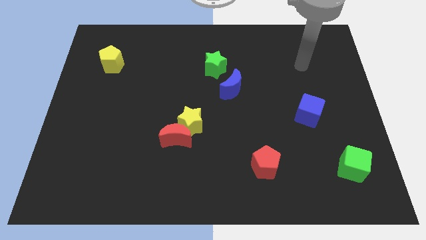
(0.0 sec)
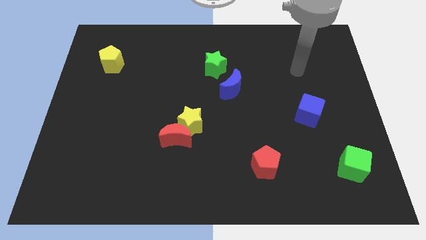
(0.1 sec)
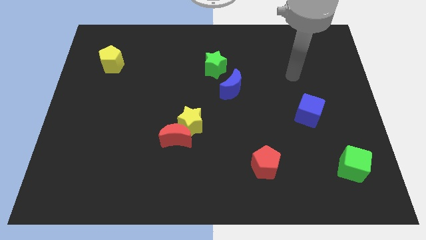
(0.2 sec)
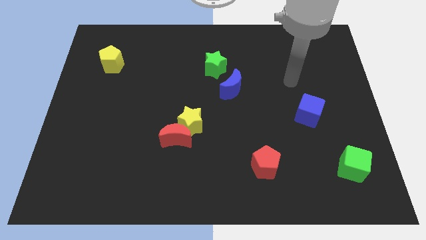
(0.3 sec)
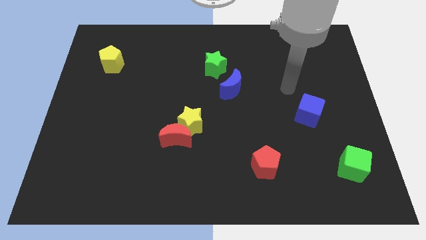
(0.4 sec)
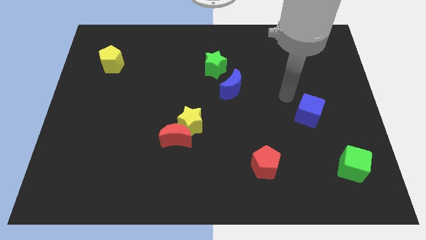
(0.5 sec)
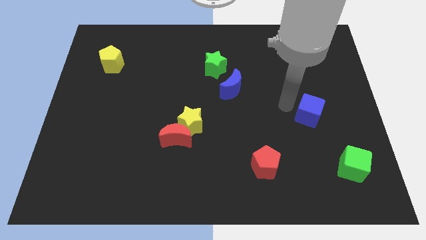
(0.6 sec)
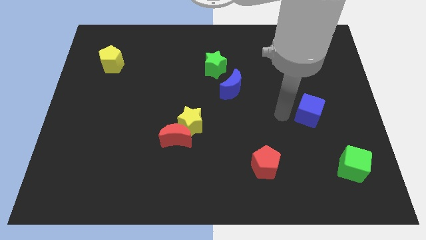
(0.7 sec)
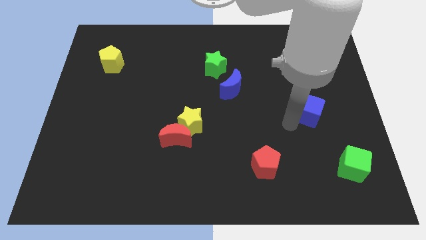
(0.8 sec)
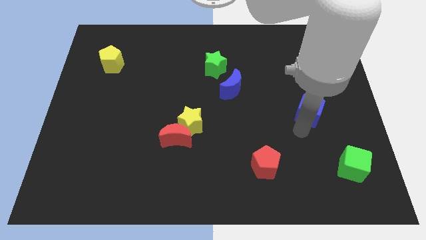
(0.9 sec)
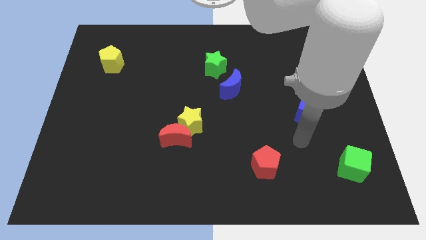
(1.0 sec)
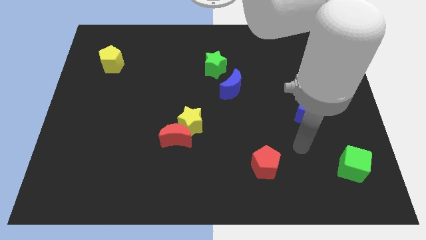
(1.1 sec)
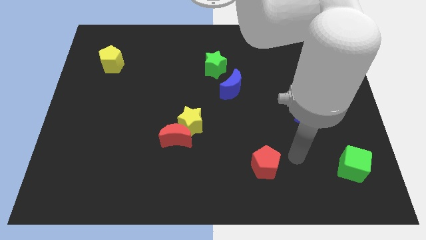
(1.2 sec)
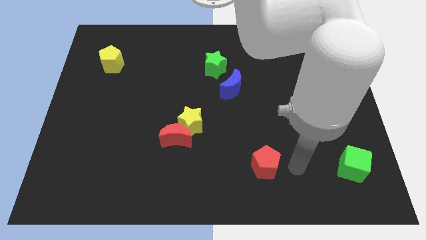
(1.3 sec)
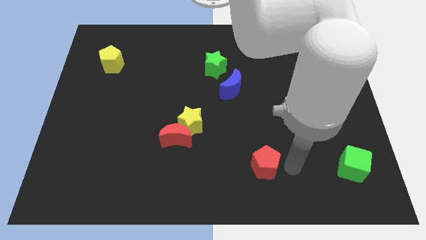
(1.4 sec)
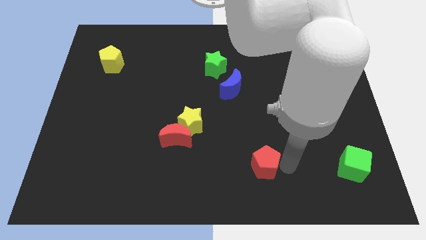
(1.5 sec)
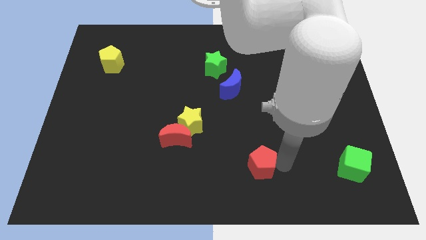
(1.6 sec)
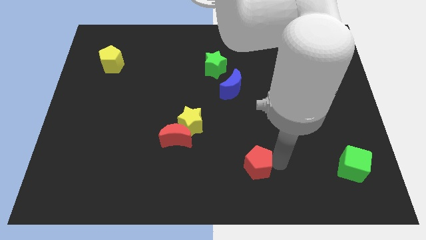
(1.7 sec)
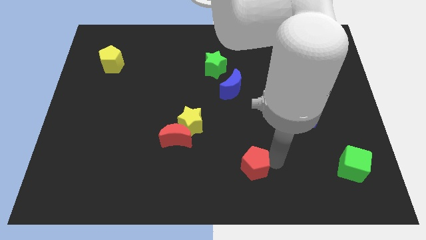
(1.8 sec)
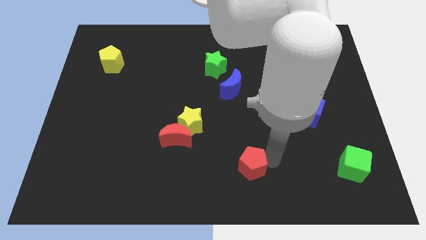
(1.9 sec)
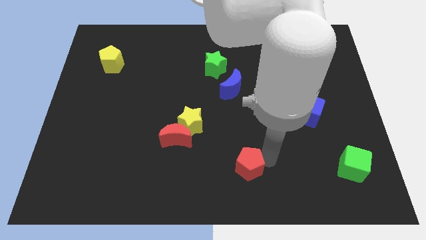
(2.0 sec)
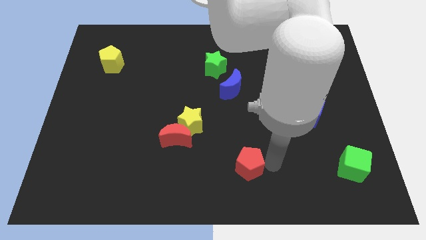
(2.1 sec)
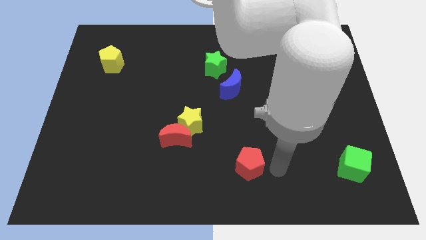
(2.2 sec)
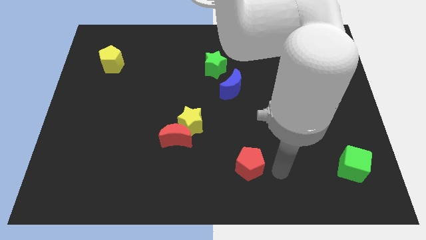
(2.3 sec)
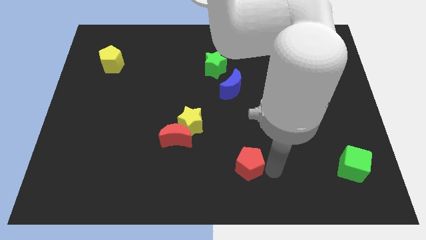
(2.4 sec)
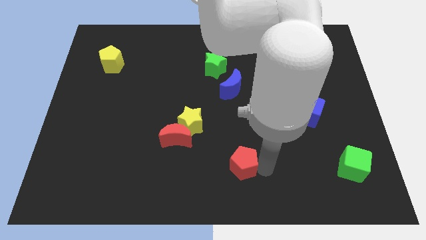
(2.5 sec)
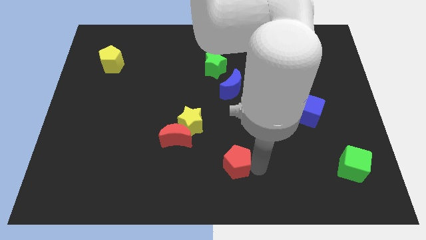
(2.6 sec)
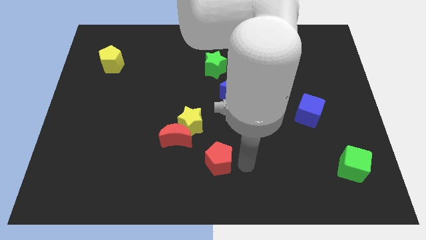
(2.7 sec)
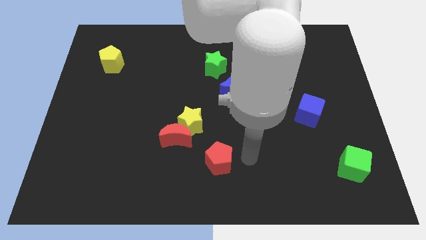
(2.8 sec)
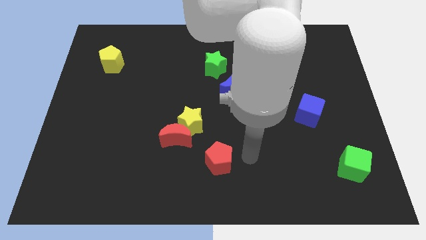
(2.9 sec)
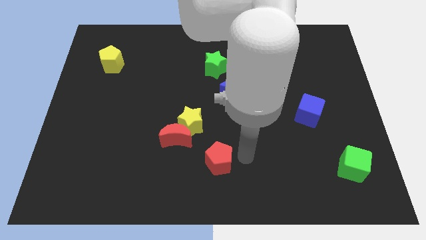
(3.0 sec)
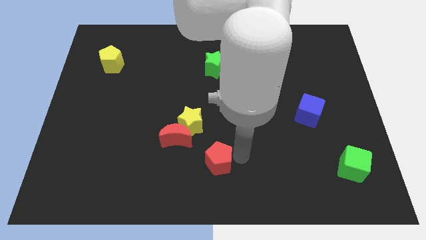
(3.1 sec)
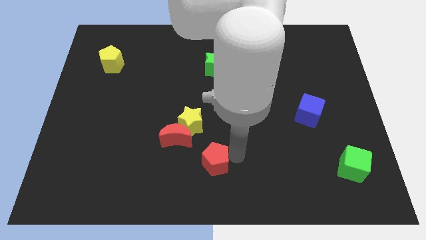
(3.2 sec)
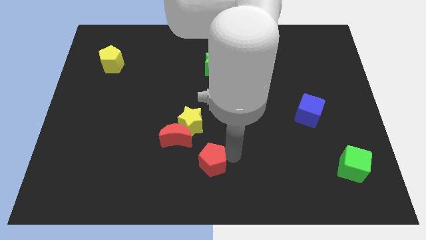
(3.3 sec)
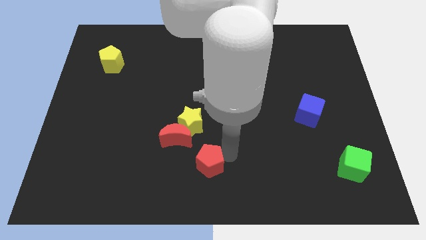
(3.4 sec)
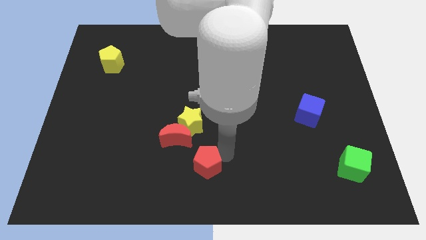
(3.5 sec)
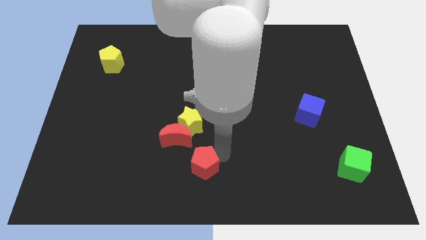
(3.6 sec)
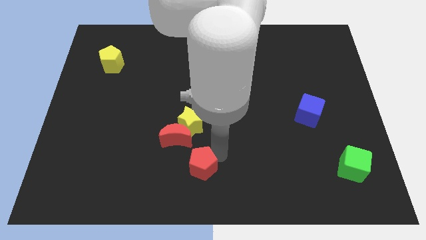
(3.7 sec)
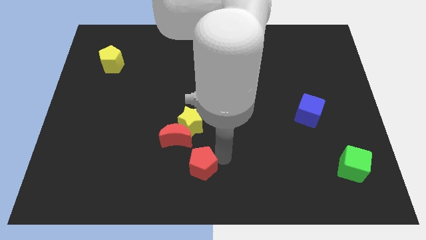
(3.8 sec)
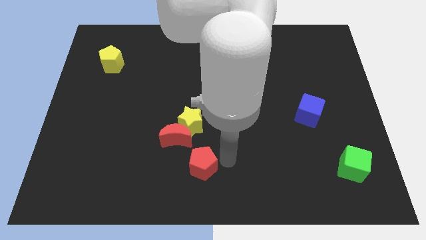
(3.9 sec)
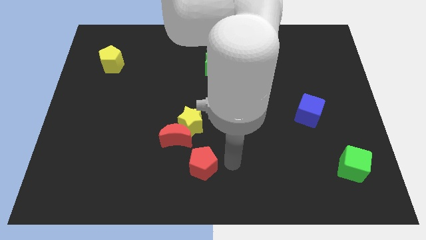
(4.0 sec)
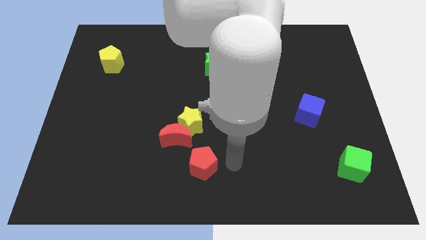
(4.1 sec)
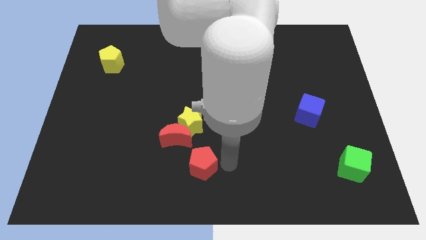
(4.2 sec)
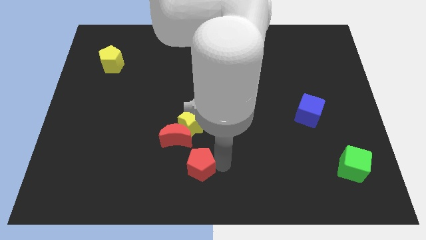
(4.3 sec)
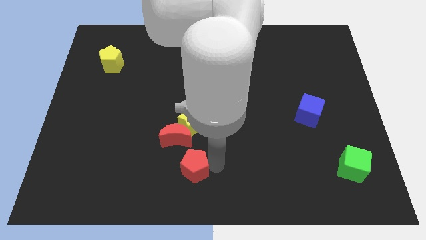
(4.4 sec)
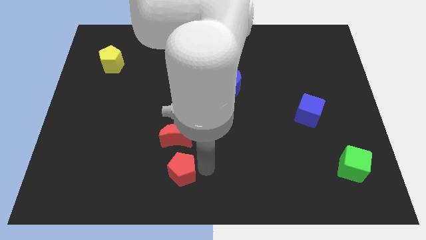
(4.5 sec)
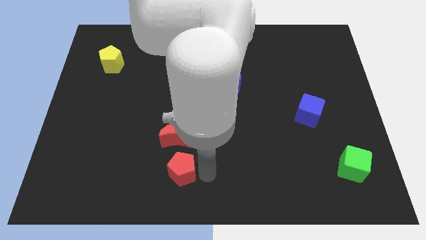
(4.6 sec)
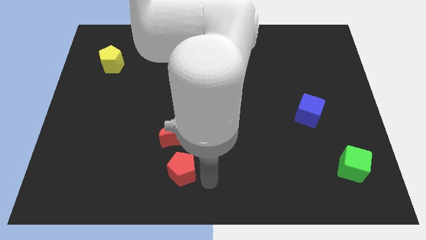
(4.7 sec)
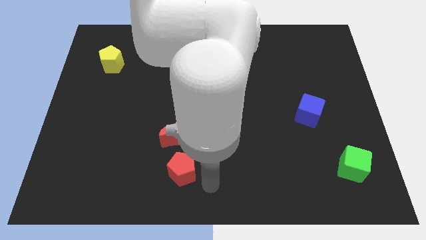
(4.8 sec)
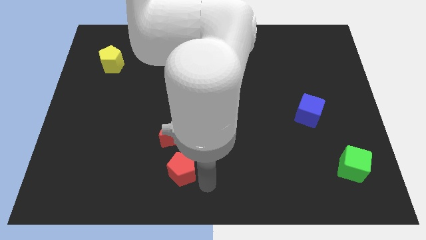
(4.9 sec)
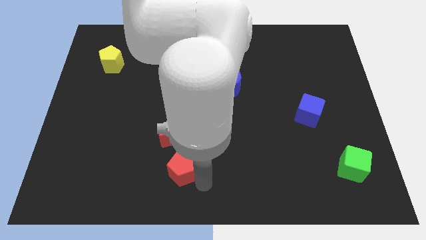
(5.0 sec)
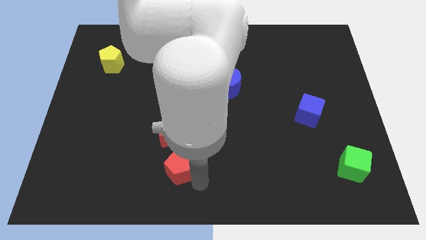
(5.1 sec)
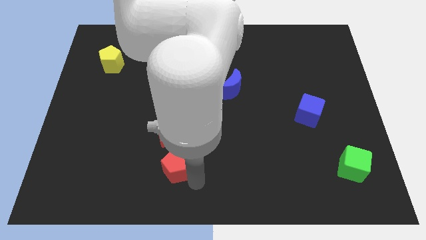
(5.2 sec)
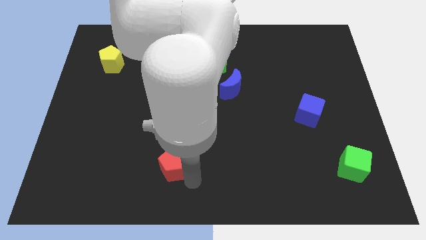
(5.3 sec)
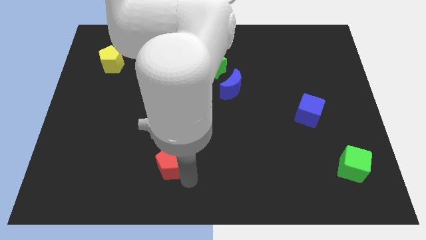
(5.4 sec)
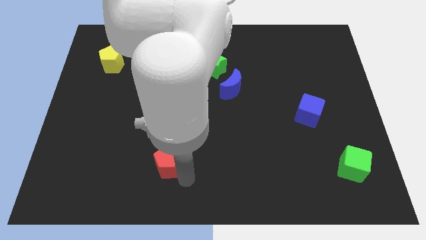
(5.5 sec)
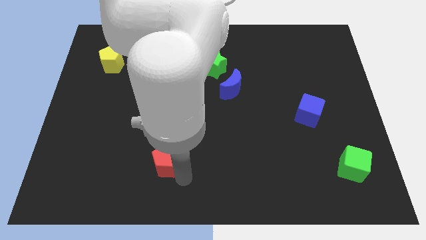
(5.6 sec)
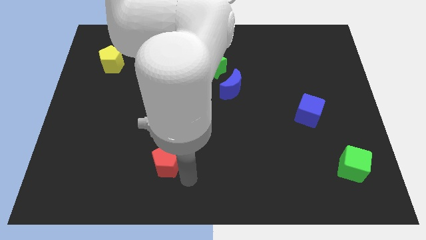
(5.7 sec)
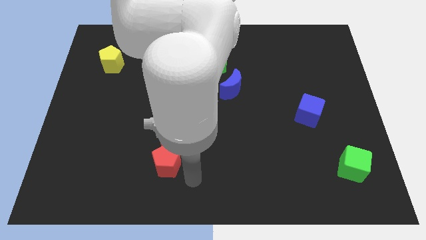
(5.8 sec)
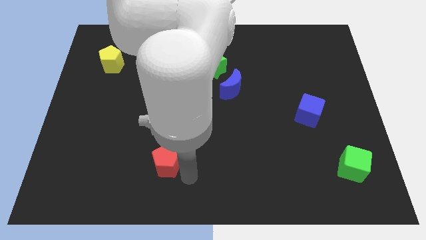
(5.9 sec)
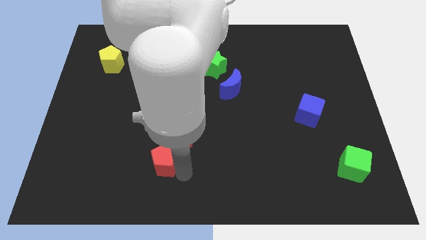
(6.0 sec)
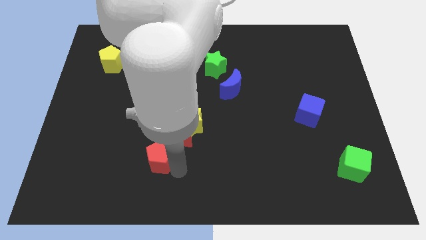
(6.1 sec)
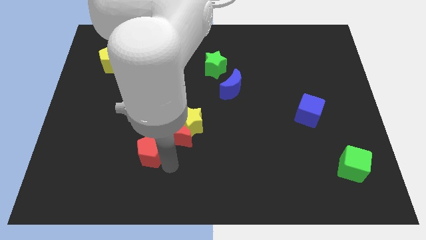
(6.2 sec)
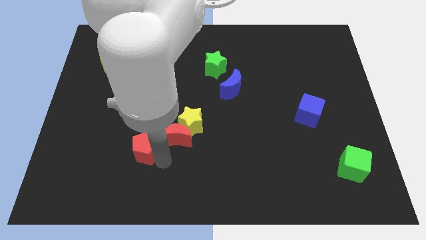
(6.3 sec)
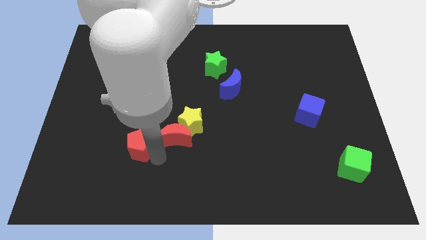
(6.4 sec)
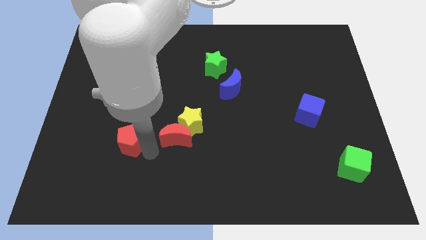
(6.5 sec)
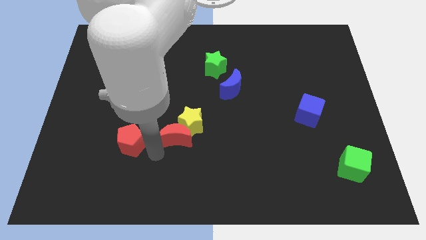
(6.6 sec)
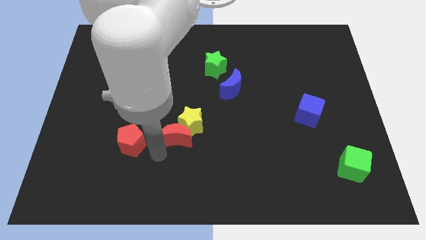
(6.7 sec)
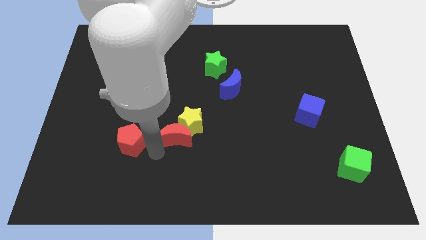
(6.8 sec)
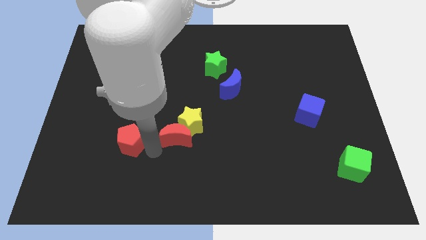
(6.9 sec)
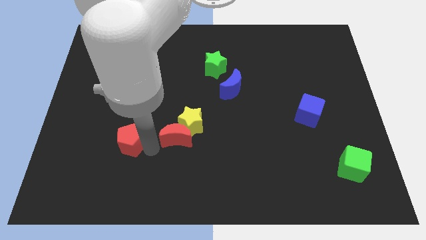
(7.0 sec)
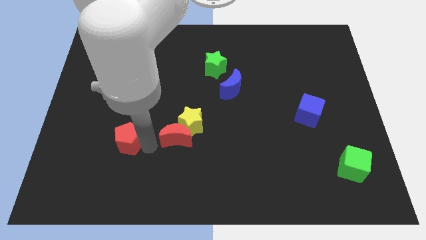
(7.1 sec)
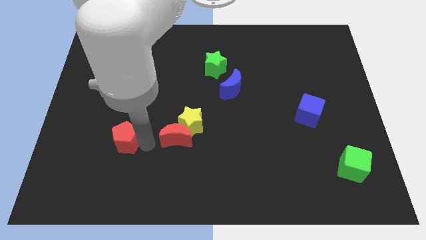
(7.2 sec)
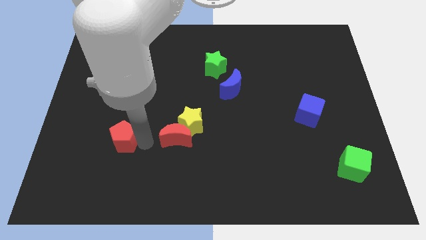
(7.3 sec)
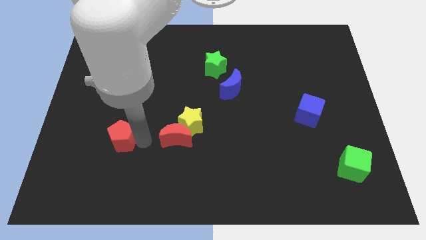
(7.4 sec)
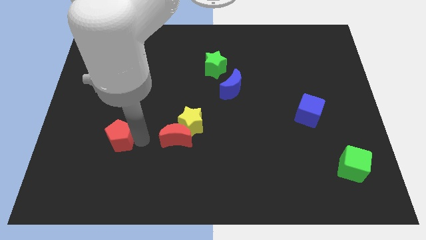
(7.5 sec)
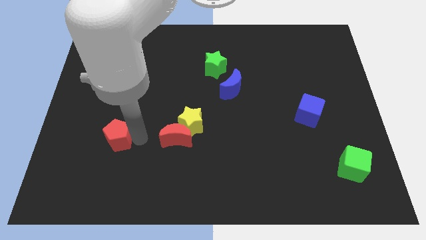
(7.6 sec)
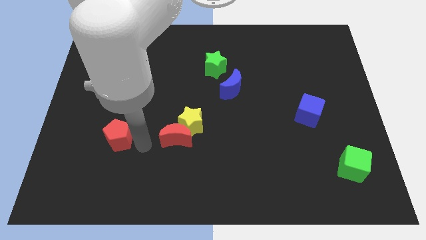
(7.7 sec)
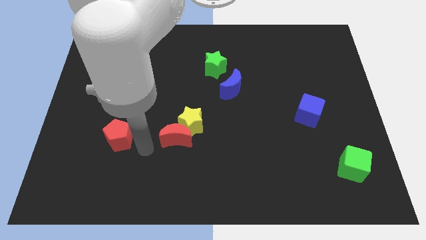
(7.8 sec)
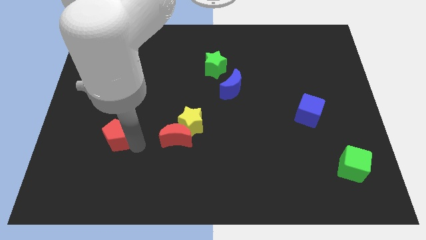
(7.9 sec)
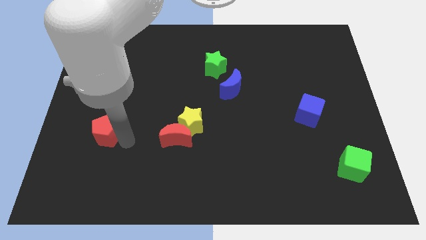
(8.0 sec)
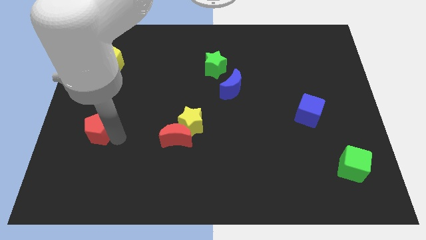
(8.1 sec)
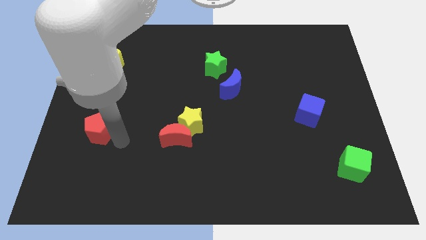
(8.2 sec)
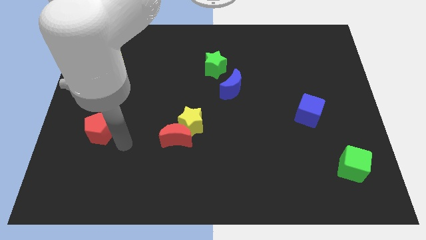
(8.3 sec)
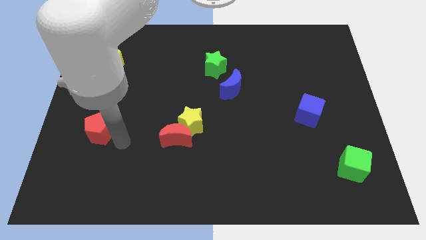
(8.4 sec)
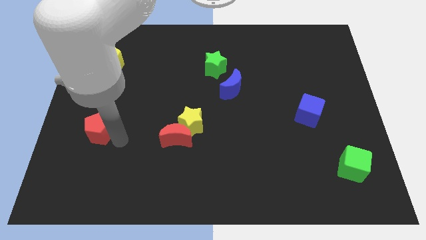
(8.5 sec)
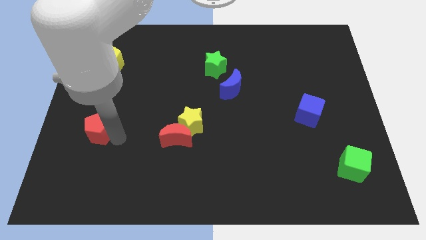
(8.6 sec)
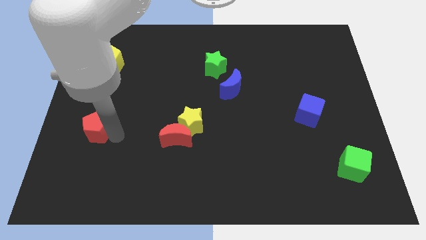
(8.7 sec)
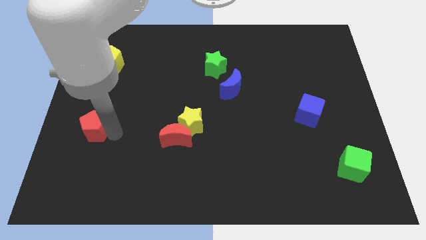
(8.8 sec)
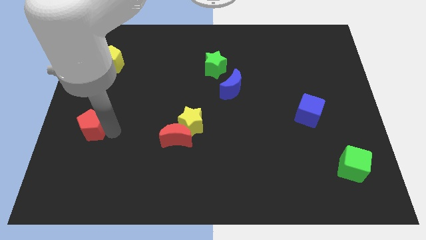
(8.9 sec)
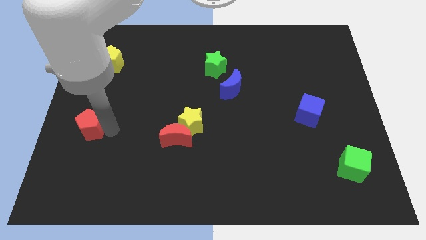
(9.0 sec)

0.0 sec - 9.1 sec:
move the red pentagon to the left side of the board
